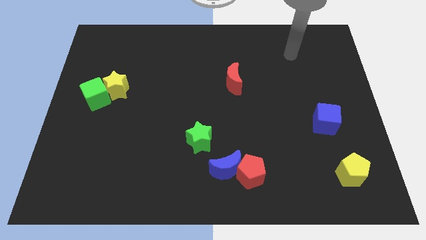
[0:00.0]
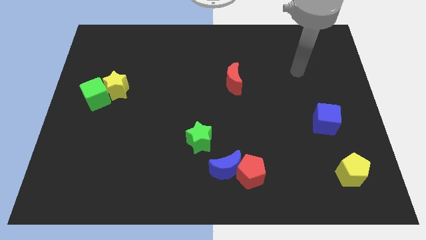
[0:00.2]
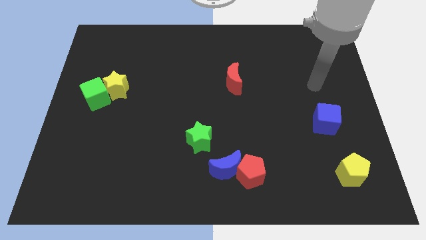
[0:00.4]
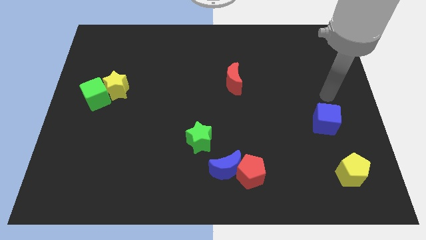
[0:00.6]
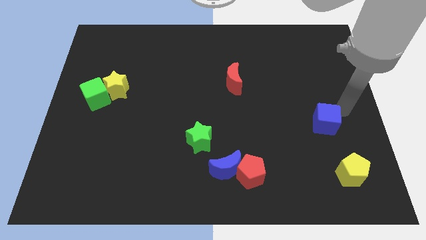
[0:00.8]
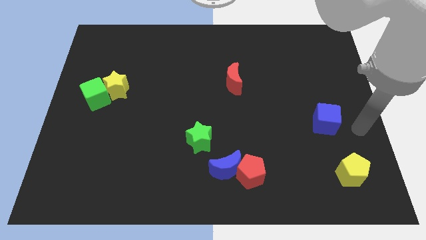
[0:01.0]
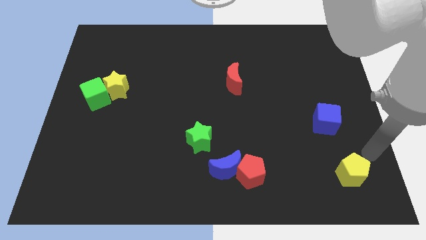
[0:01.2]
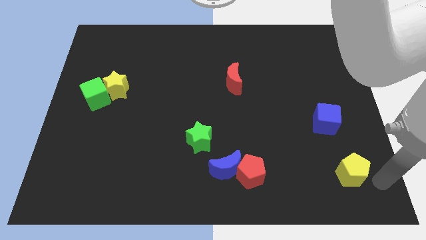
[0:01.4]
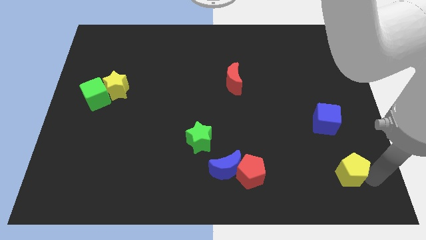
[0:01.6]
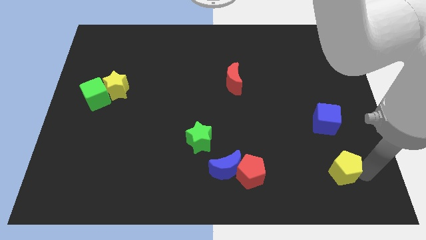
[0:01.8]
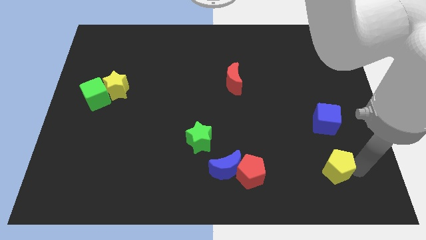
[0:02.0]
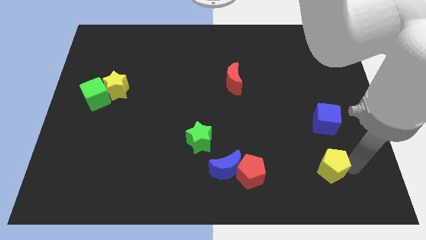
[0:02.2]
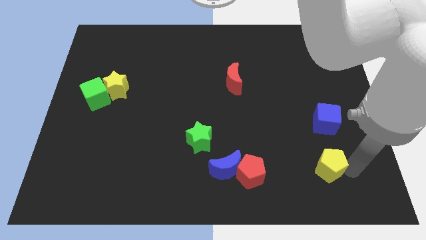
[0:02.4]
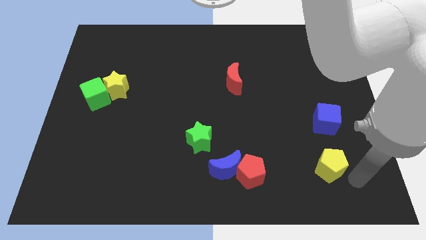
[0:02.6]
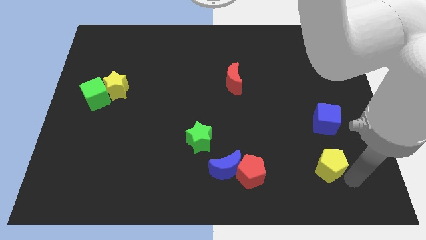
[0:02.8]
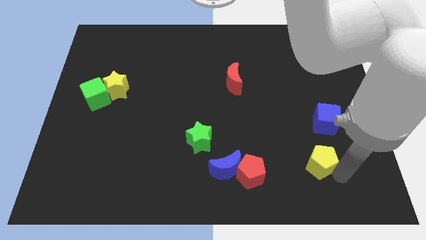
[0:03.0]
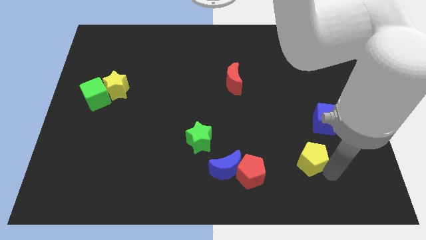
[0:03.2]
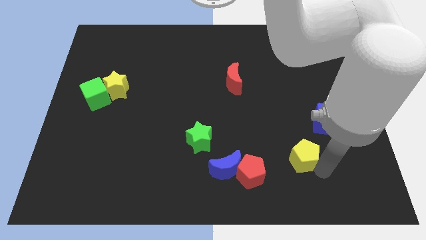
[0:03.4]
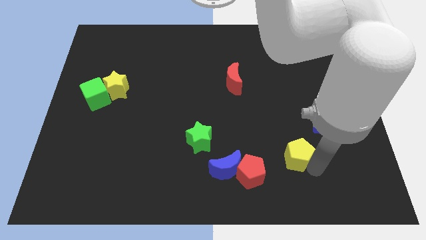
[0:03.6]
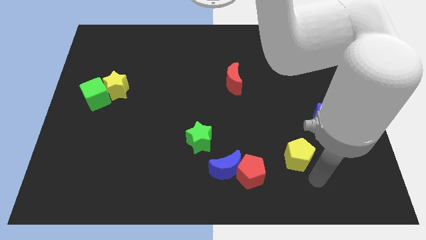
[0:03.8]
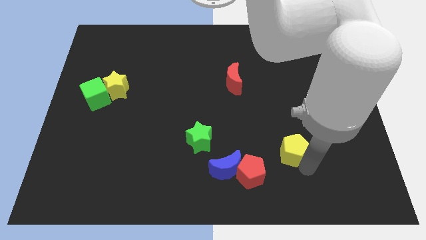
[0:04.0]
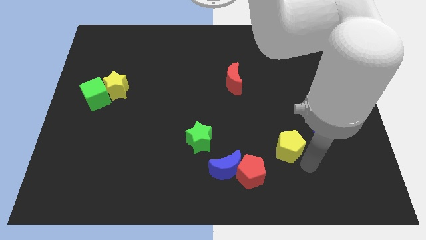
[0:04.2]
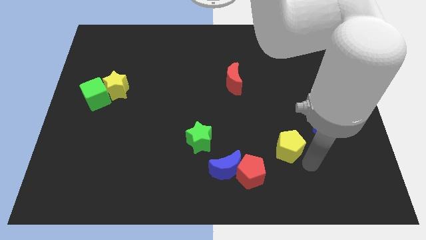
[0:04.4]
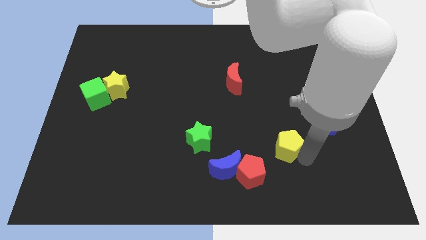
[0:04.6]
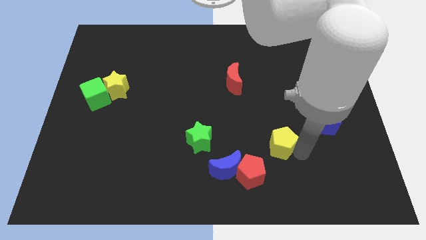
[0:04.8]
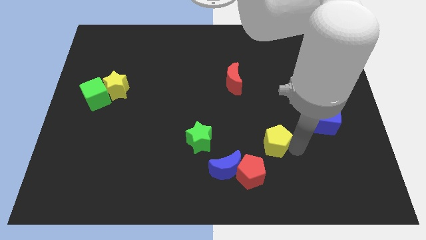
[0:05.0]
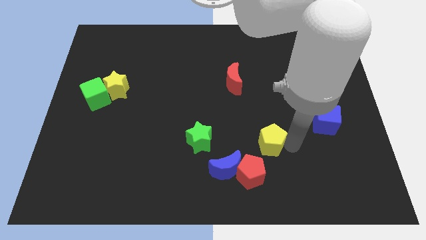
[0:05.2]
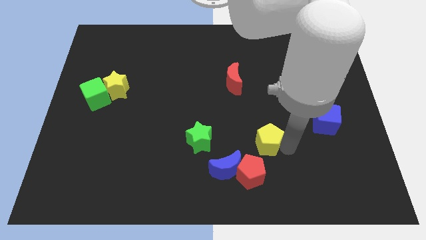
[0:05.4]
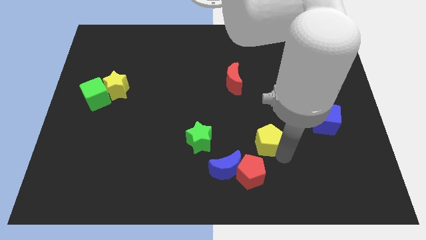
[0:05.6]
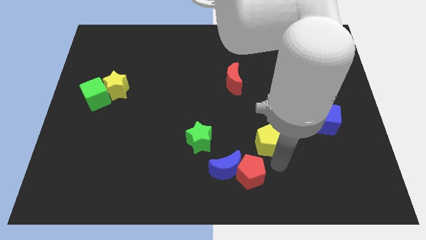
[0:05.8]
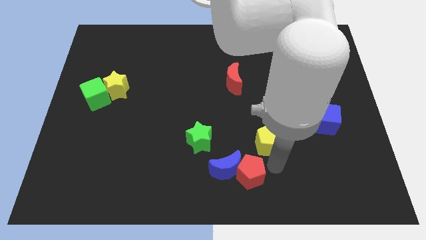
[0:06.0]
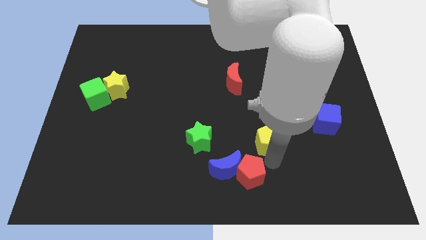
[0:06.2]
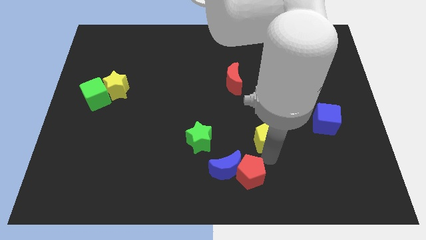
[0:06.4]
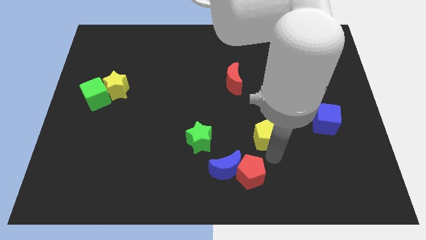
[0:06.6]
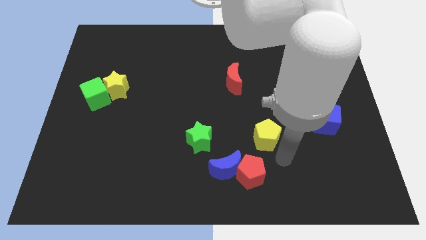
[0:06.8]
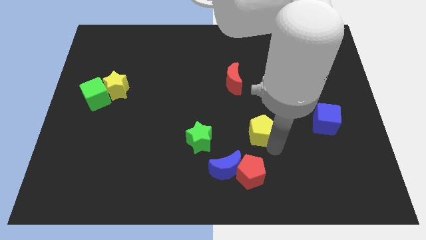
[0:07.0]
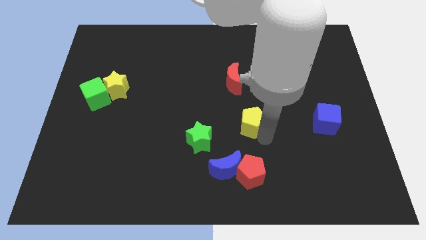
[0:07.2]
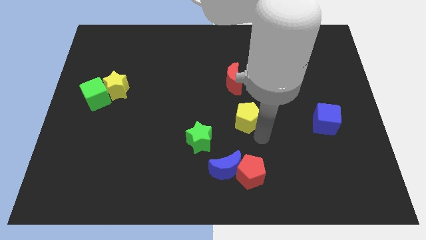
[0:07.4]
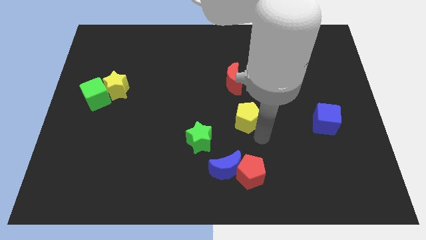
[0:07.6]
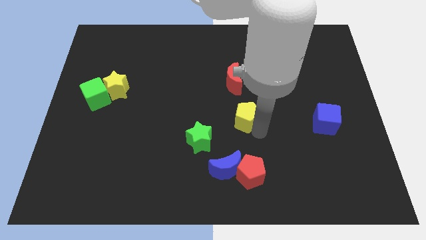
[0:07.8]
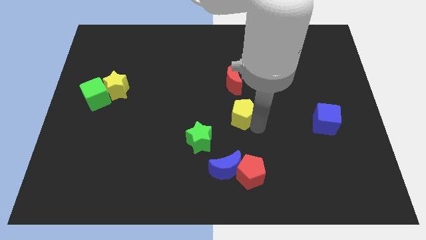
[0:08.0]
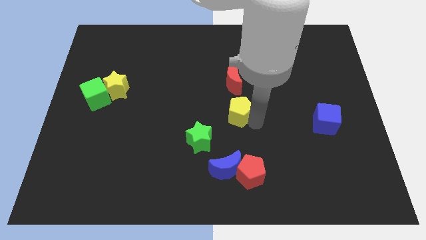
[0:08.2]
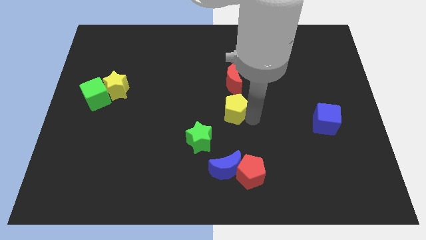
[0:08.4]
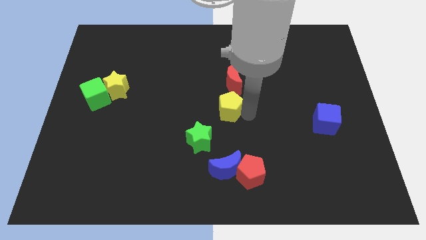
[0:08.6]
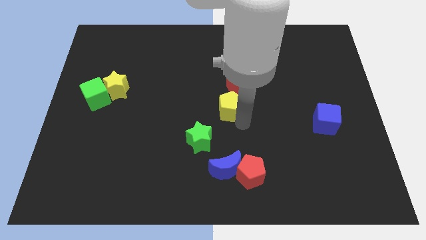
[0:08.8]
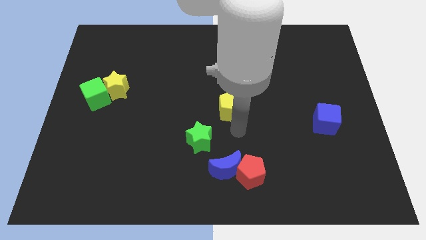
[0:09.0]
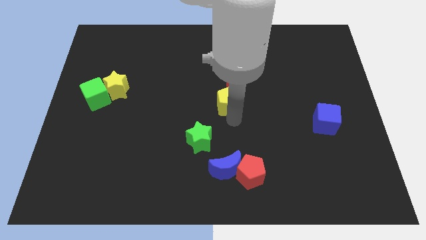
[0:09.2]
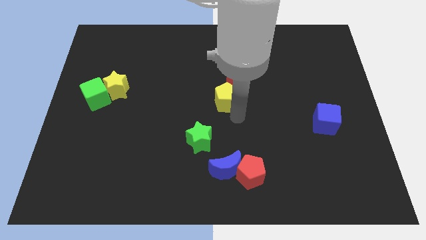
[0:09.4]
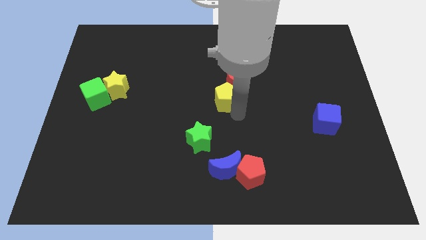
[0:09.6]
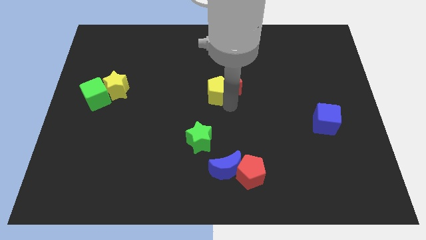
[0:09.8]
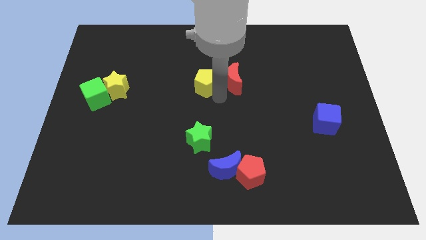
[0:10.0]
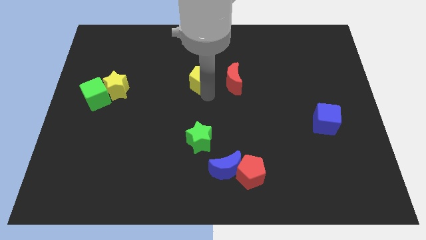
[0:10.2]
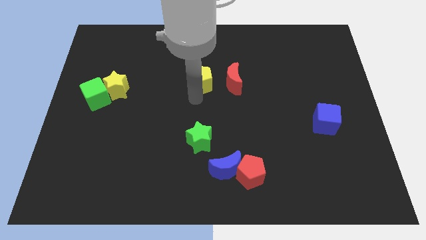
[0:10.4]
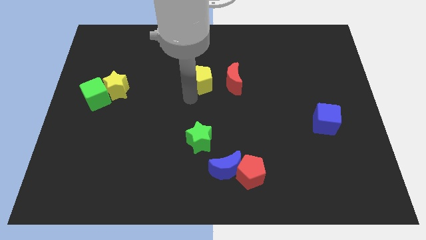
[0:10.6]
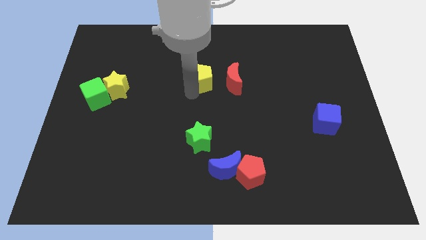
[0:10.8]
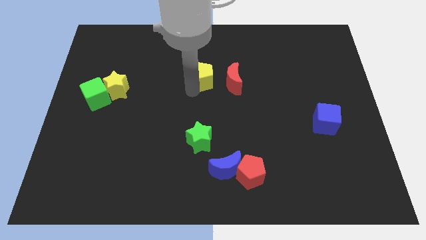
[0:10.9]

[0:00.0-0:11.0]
move the yellow pentagon to the top left side of the red moon

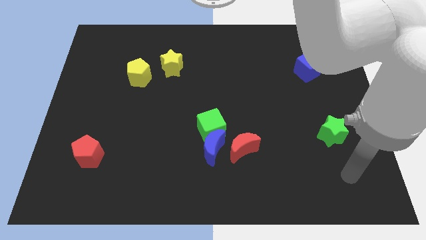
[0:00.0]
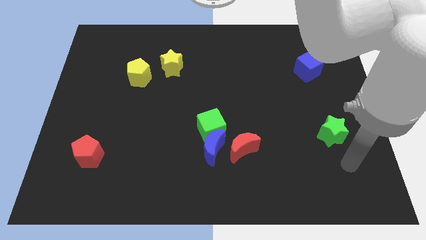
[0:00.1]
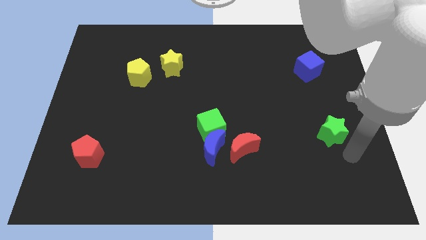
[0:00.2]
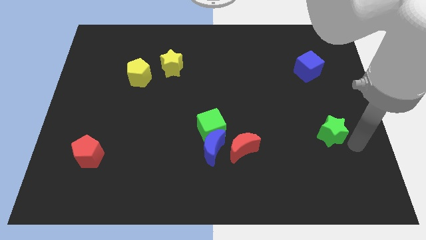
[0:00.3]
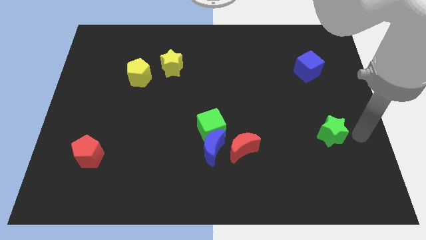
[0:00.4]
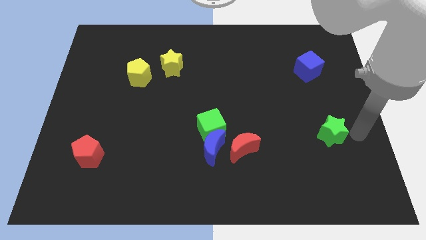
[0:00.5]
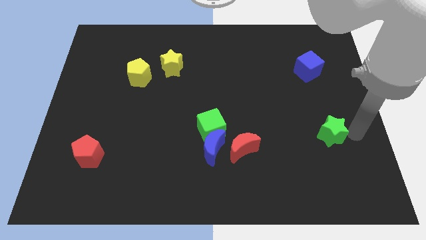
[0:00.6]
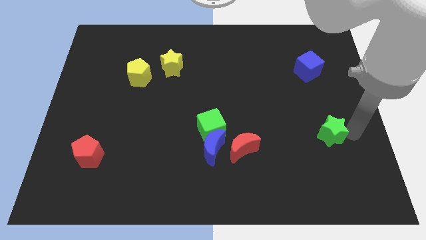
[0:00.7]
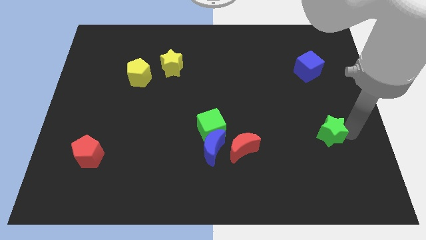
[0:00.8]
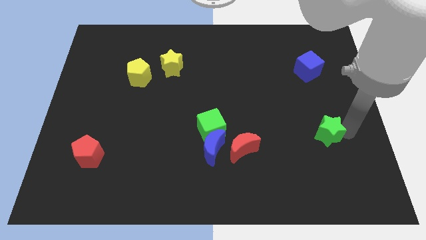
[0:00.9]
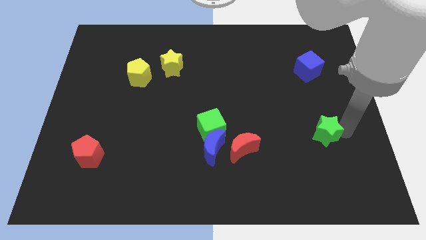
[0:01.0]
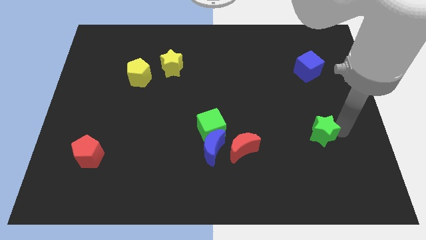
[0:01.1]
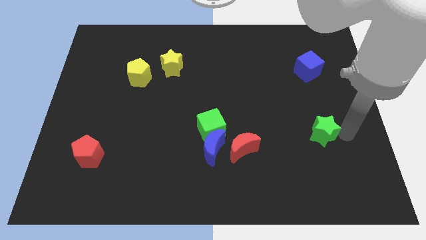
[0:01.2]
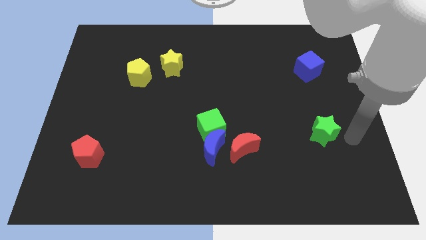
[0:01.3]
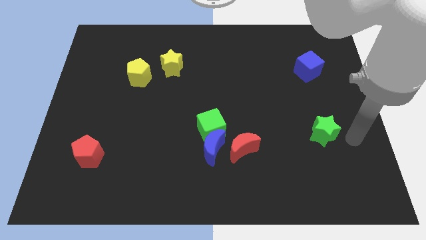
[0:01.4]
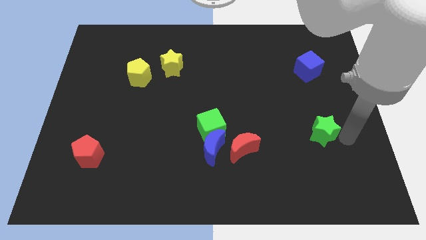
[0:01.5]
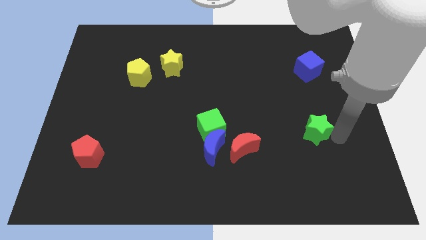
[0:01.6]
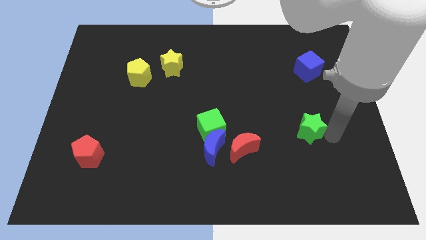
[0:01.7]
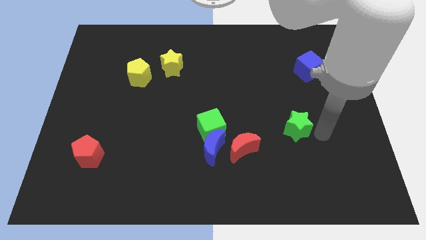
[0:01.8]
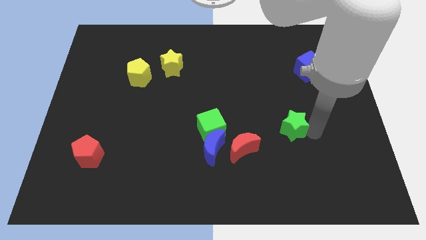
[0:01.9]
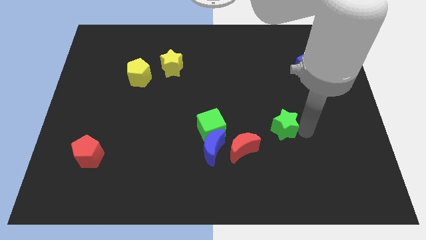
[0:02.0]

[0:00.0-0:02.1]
move the green star to the top right side of the red moon
